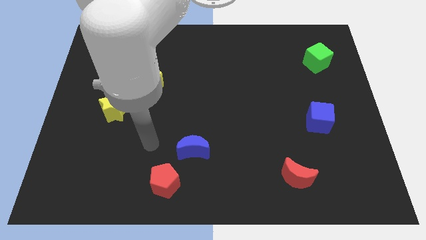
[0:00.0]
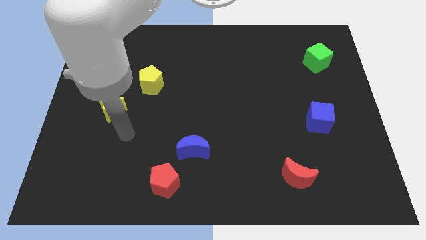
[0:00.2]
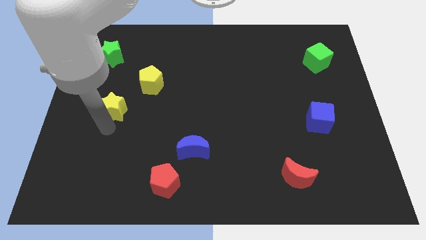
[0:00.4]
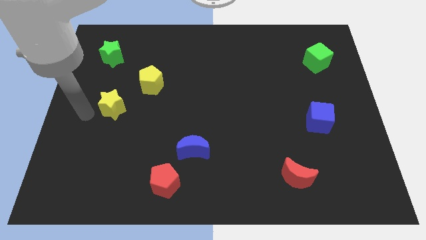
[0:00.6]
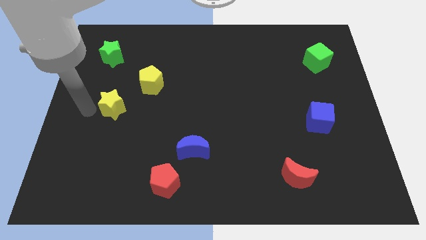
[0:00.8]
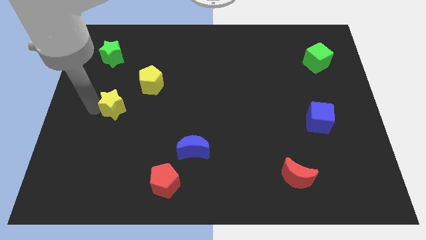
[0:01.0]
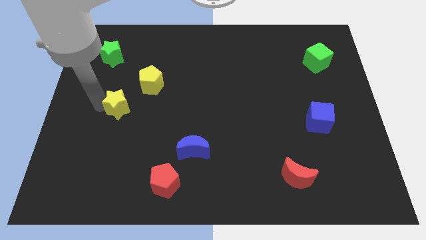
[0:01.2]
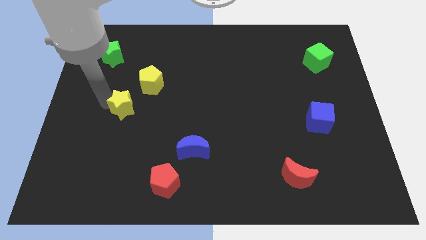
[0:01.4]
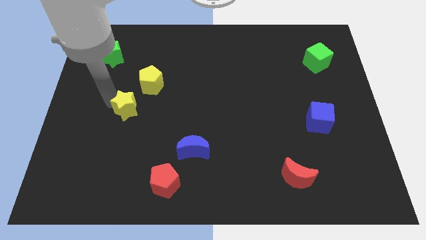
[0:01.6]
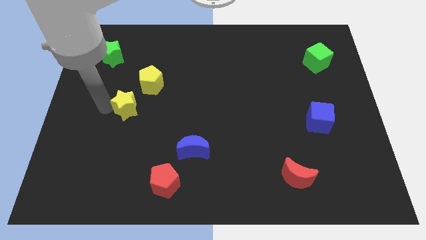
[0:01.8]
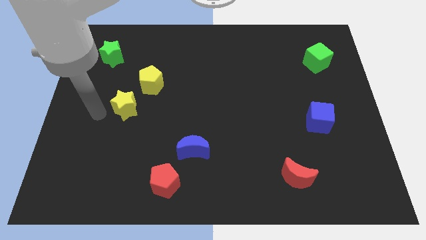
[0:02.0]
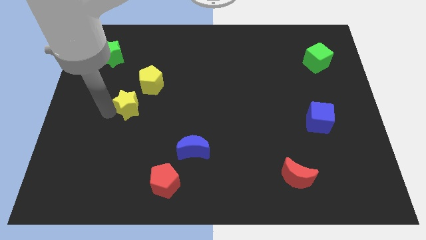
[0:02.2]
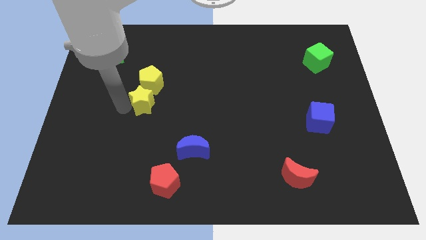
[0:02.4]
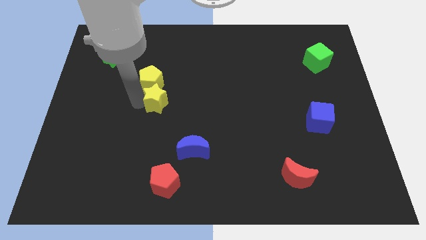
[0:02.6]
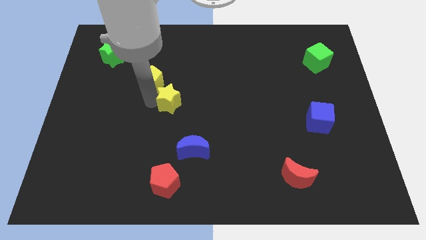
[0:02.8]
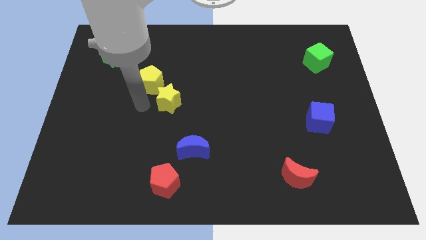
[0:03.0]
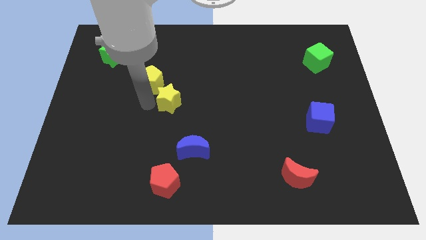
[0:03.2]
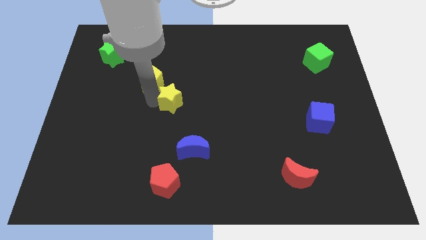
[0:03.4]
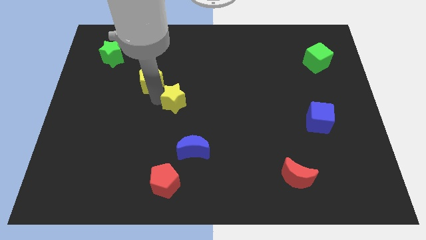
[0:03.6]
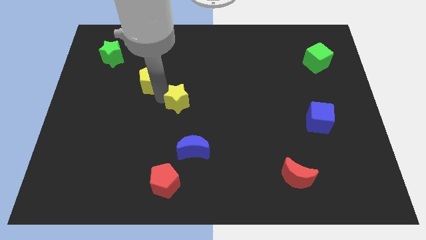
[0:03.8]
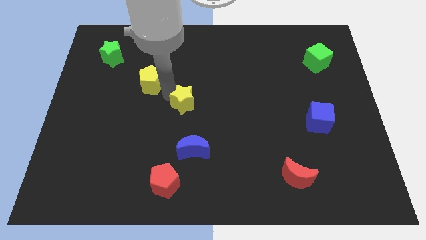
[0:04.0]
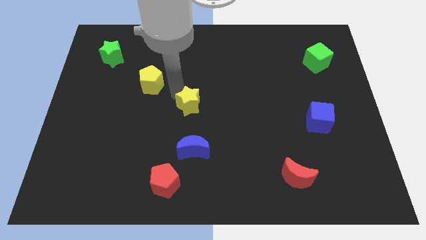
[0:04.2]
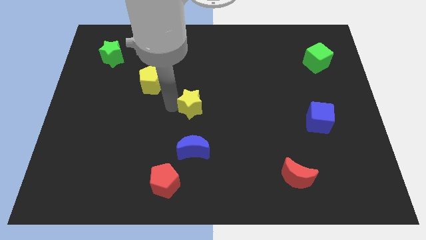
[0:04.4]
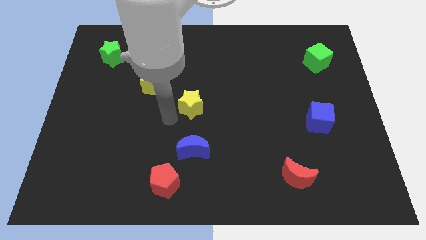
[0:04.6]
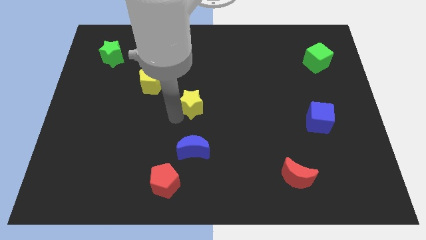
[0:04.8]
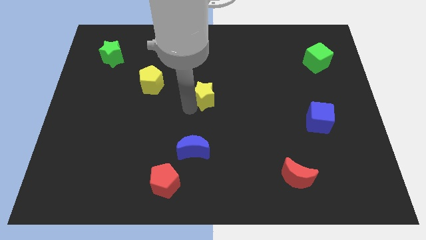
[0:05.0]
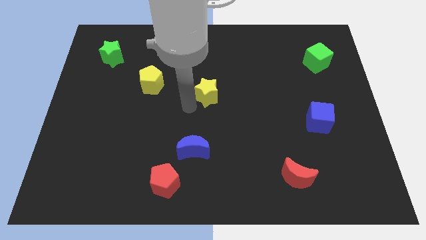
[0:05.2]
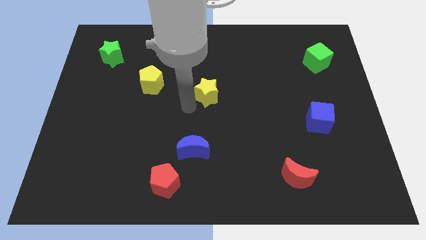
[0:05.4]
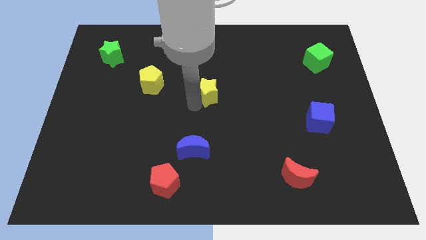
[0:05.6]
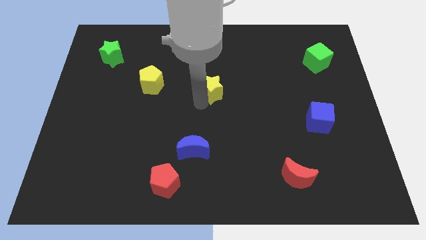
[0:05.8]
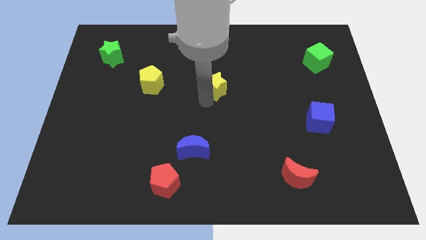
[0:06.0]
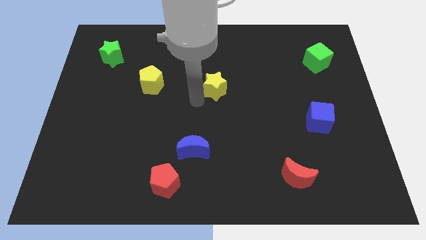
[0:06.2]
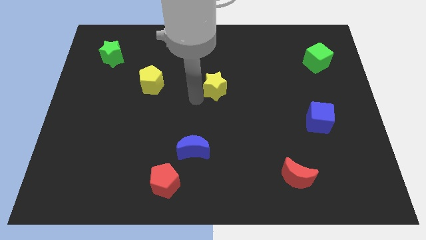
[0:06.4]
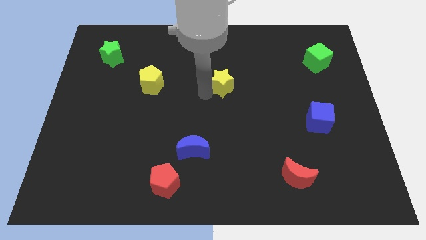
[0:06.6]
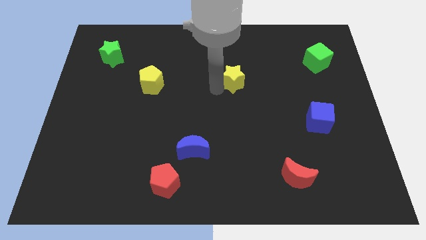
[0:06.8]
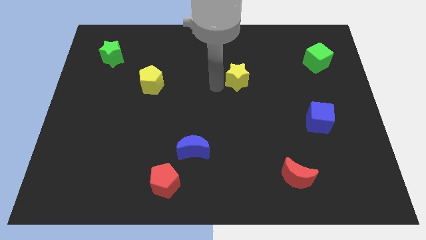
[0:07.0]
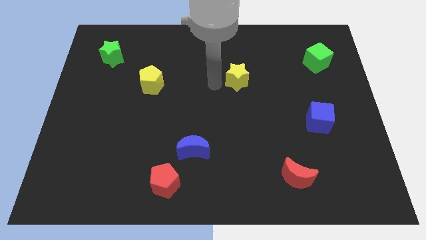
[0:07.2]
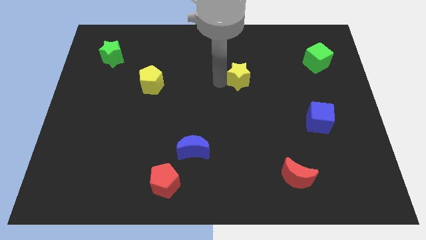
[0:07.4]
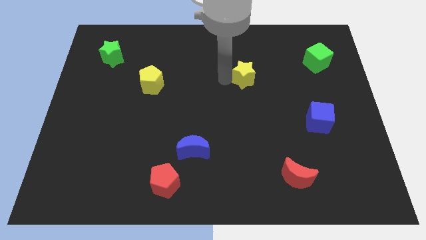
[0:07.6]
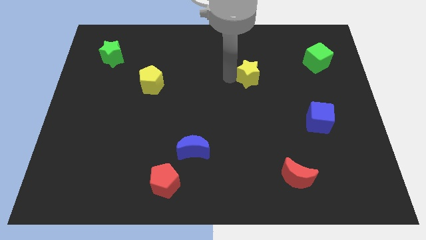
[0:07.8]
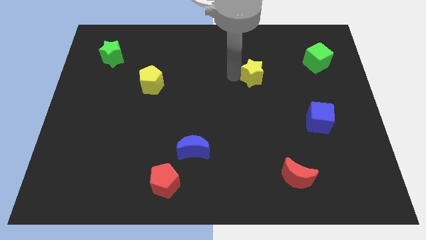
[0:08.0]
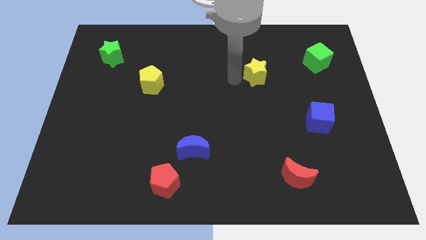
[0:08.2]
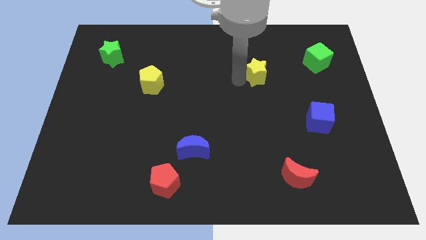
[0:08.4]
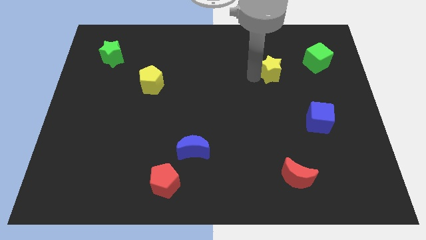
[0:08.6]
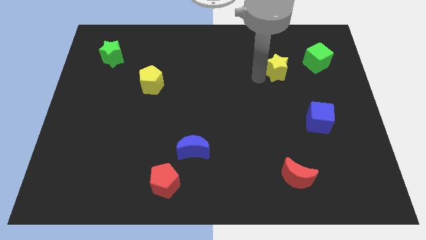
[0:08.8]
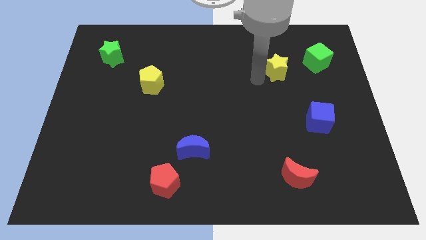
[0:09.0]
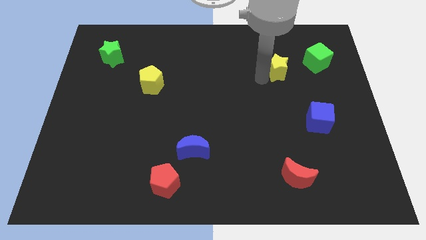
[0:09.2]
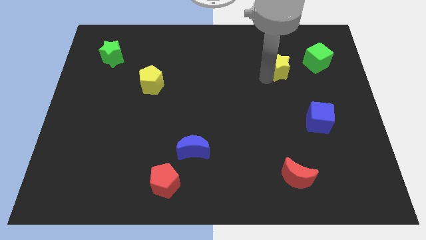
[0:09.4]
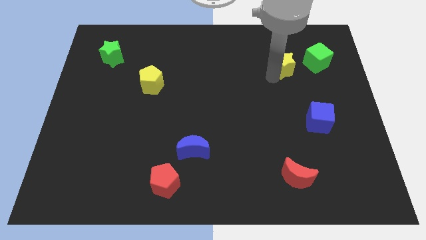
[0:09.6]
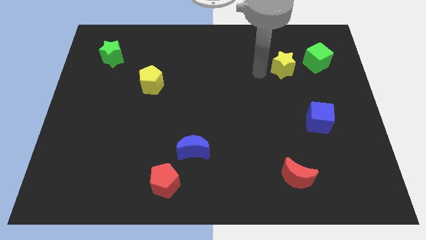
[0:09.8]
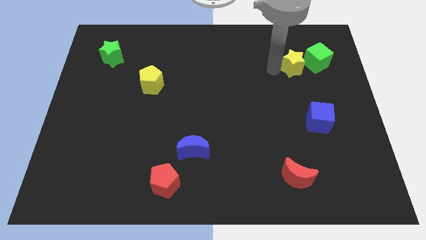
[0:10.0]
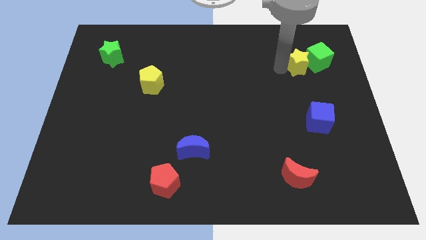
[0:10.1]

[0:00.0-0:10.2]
put the yellow star towards the green cube

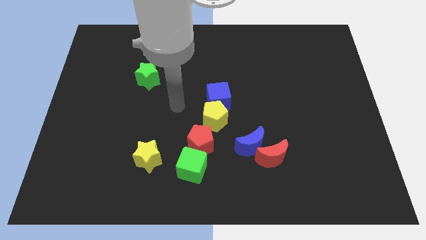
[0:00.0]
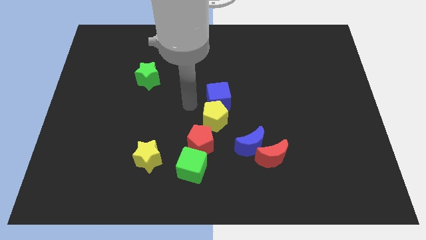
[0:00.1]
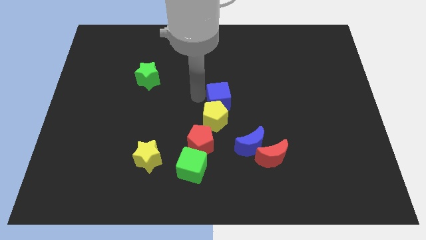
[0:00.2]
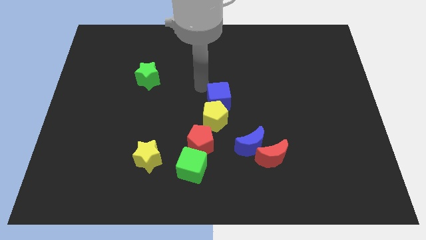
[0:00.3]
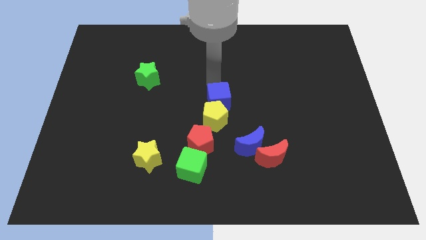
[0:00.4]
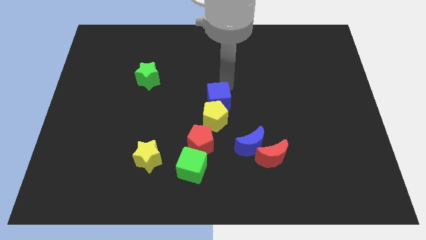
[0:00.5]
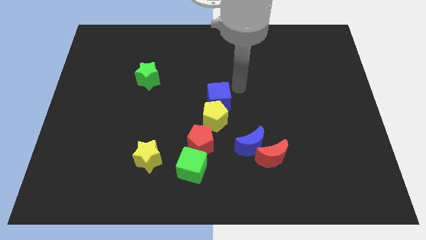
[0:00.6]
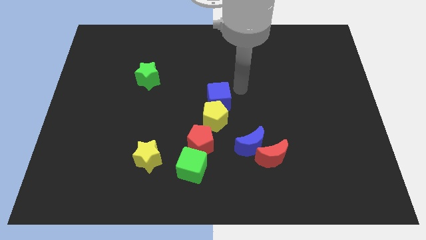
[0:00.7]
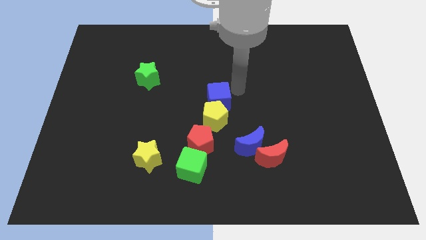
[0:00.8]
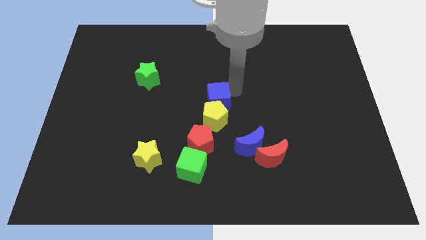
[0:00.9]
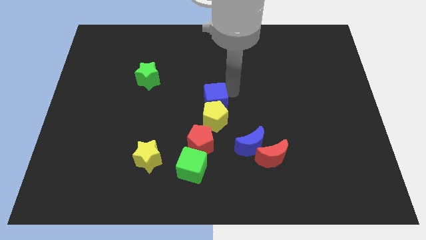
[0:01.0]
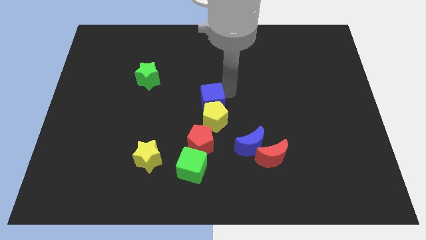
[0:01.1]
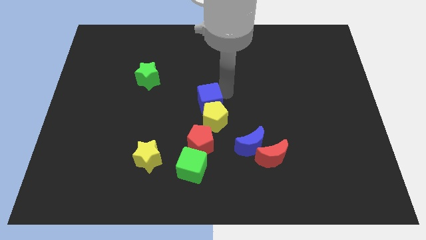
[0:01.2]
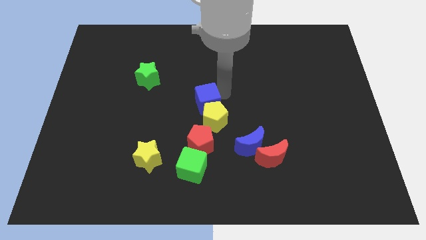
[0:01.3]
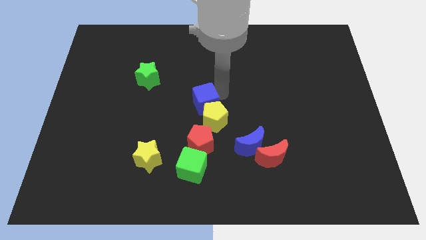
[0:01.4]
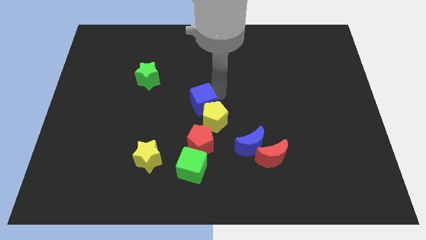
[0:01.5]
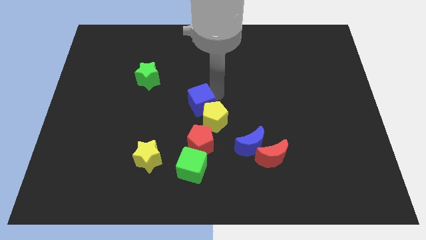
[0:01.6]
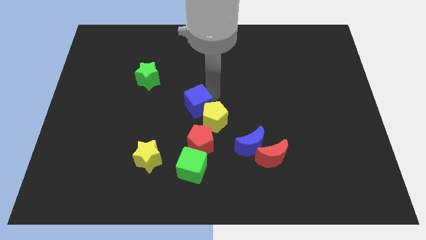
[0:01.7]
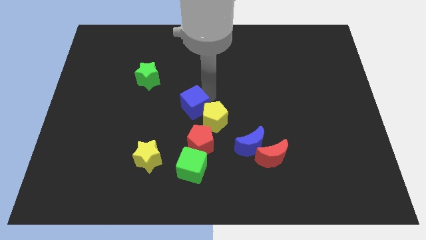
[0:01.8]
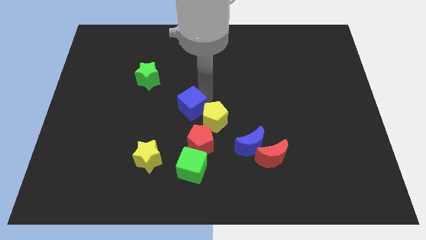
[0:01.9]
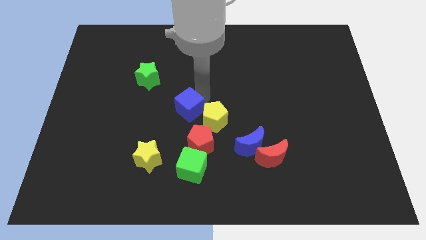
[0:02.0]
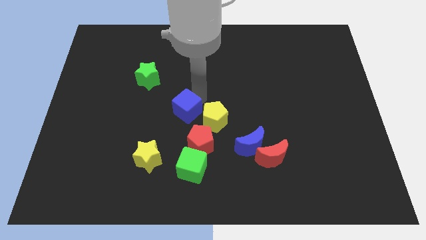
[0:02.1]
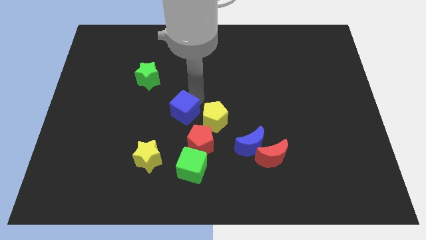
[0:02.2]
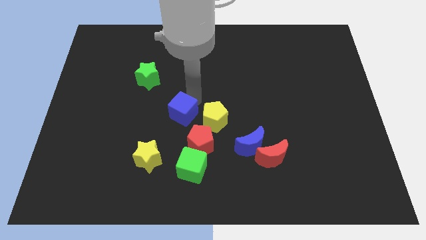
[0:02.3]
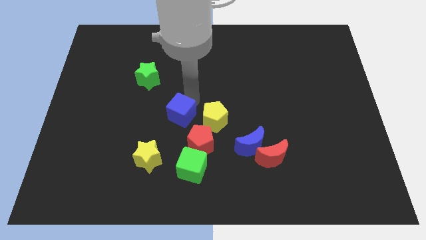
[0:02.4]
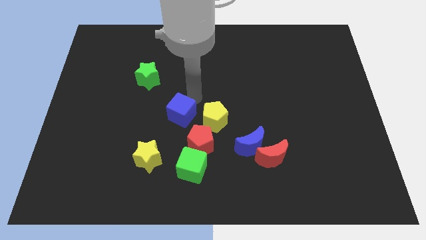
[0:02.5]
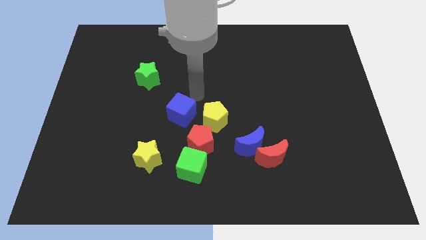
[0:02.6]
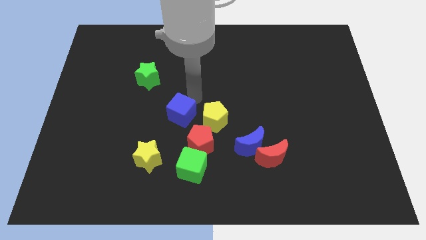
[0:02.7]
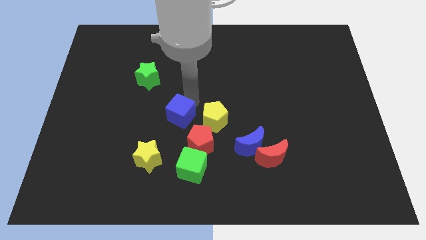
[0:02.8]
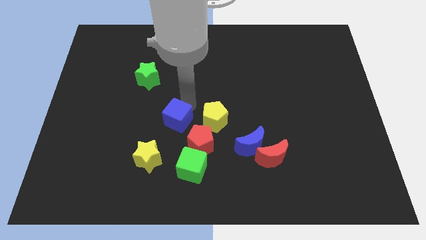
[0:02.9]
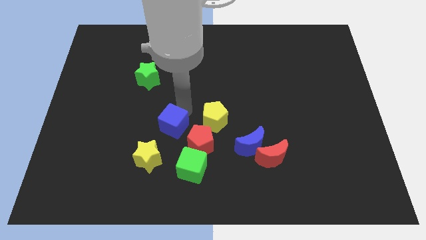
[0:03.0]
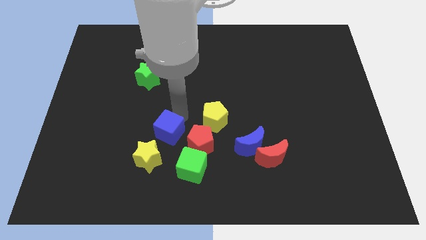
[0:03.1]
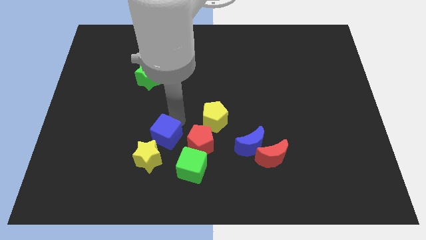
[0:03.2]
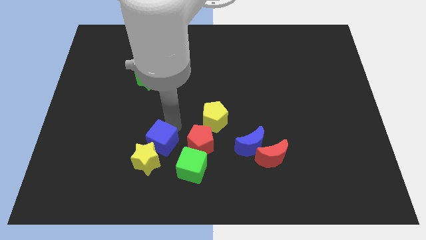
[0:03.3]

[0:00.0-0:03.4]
put the blue cube close to the yellow star
